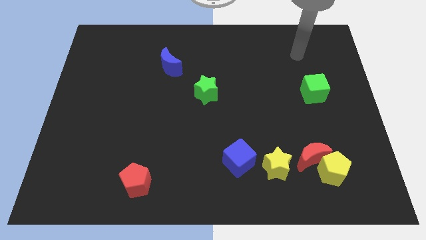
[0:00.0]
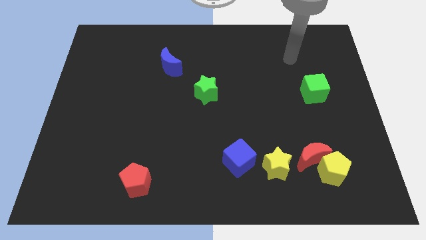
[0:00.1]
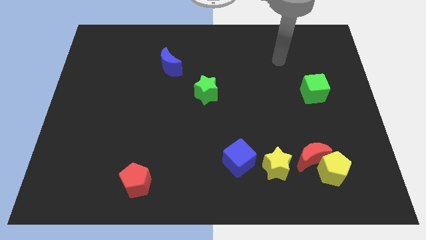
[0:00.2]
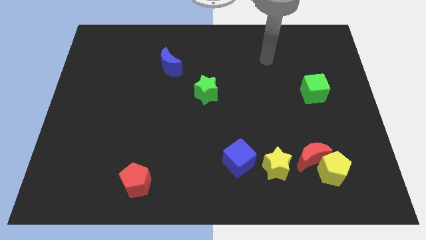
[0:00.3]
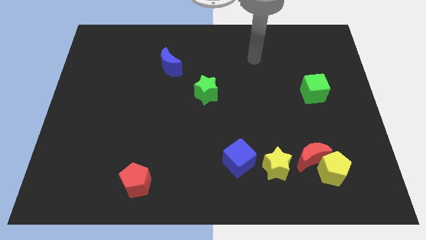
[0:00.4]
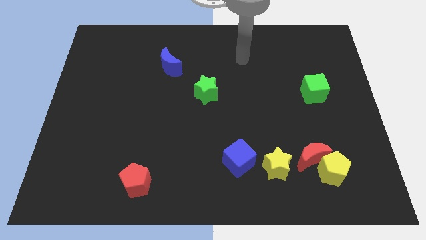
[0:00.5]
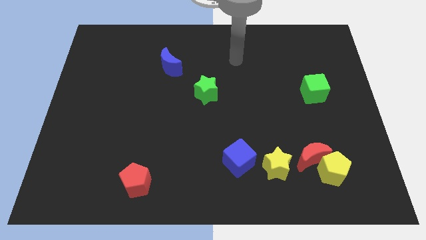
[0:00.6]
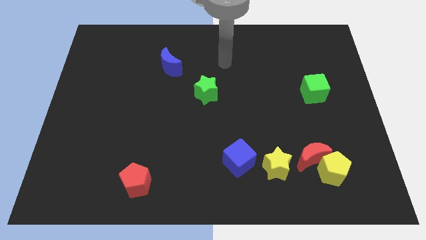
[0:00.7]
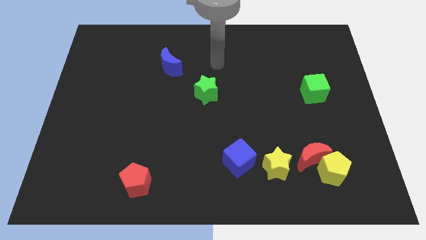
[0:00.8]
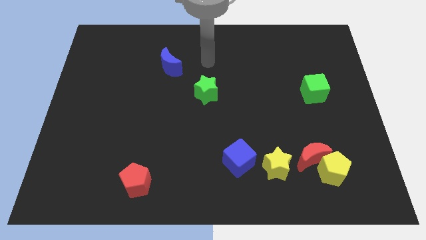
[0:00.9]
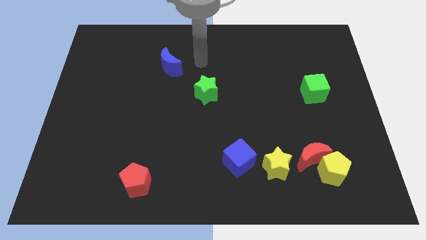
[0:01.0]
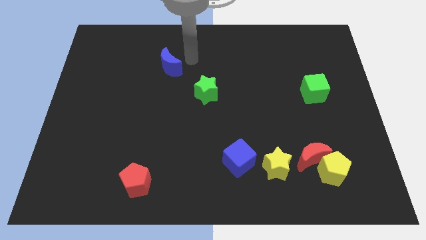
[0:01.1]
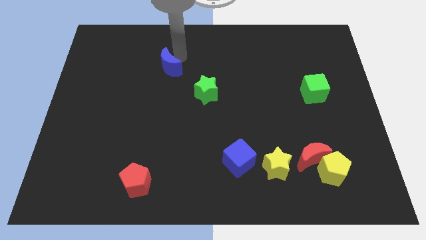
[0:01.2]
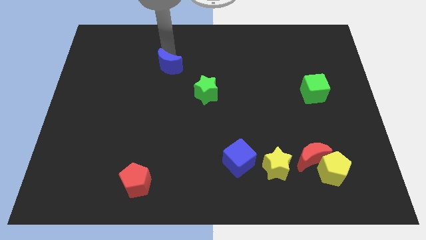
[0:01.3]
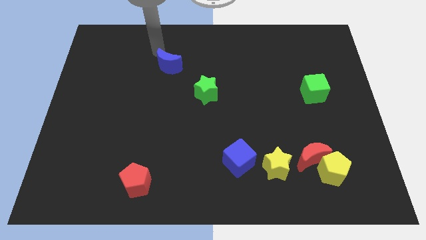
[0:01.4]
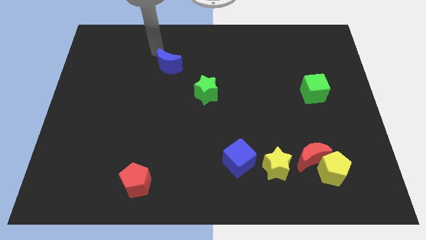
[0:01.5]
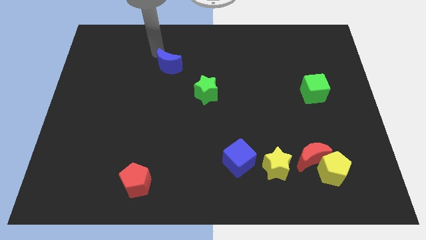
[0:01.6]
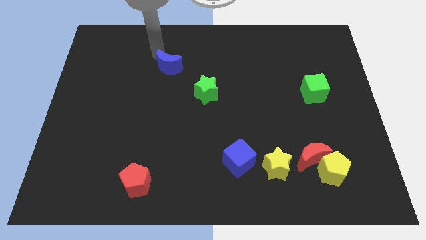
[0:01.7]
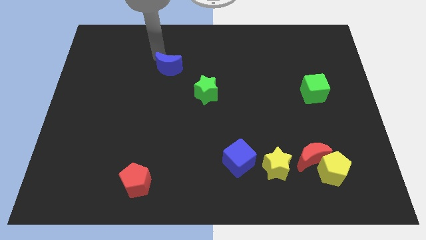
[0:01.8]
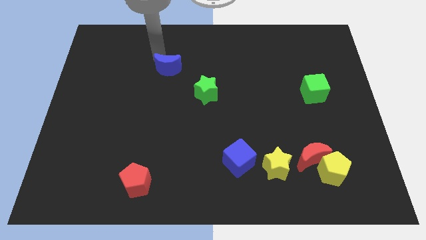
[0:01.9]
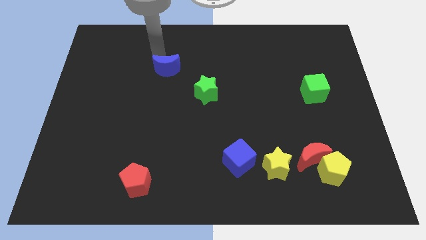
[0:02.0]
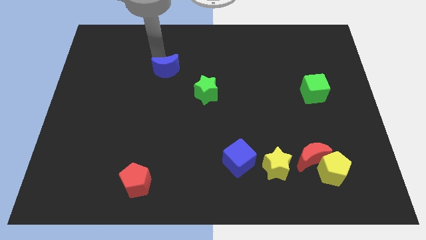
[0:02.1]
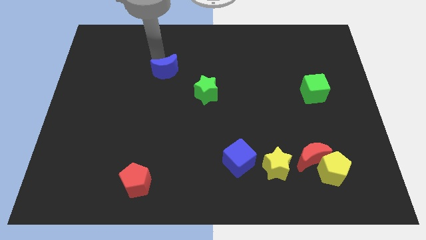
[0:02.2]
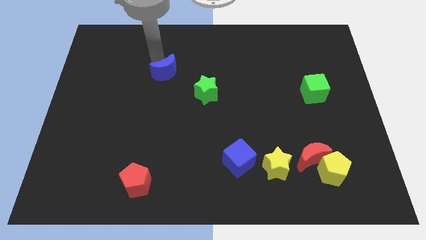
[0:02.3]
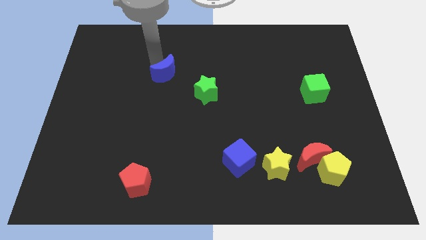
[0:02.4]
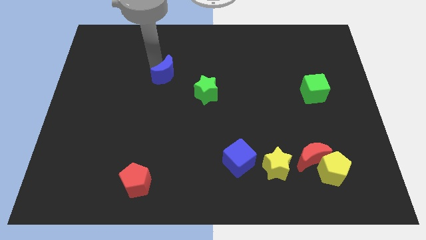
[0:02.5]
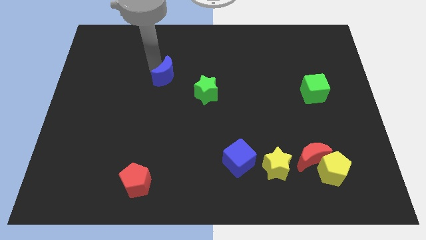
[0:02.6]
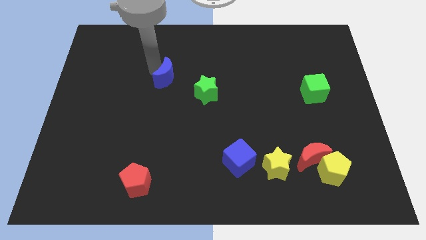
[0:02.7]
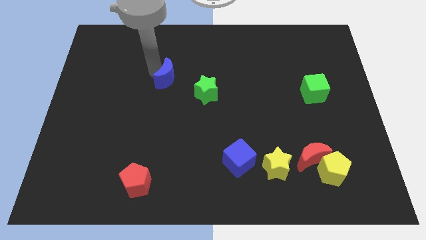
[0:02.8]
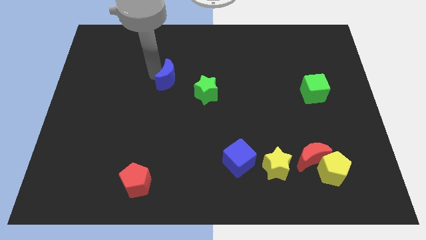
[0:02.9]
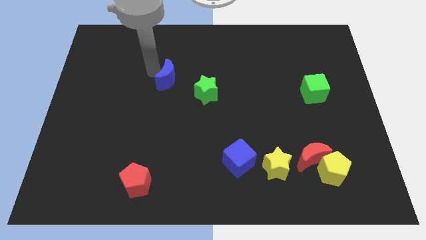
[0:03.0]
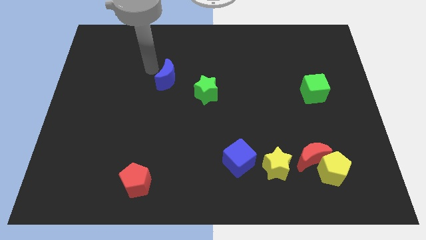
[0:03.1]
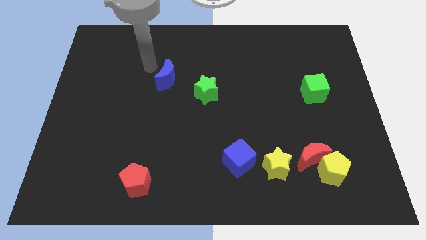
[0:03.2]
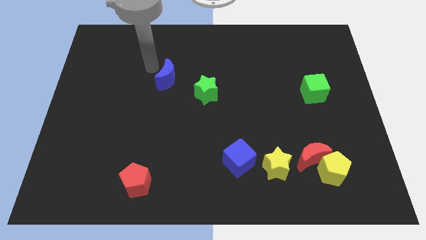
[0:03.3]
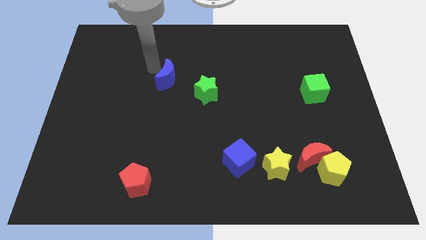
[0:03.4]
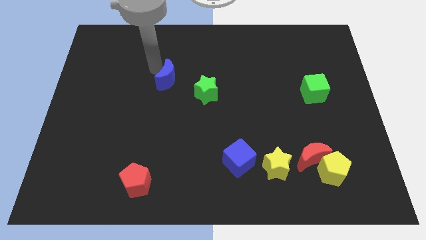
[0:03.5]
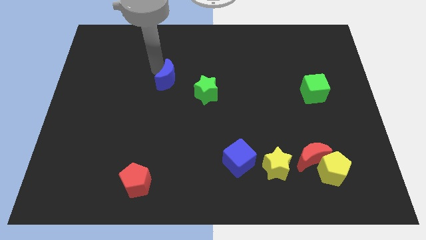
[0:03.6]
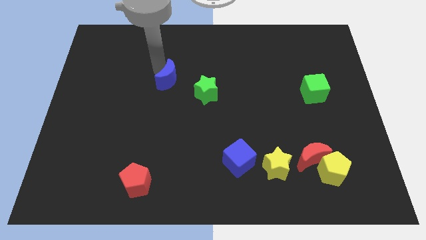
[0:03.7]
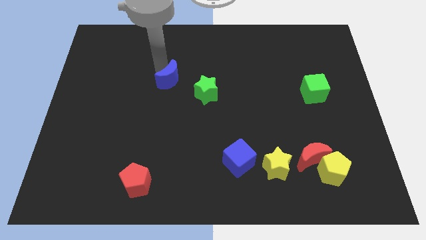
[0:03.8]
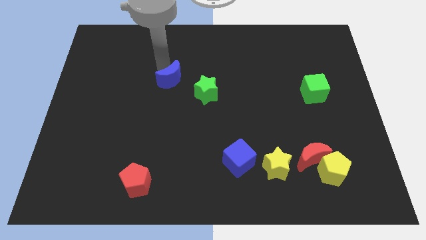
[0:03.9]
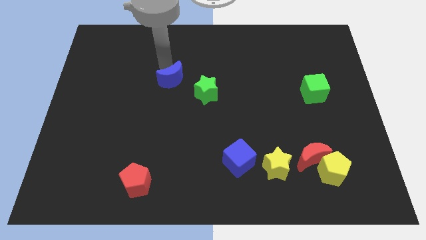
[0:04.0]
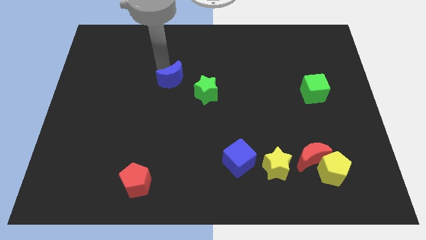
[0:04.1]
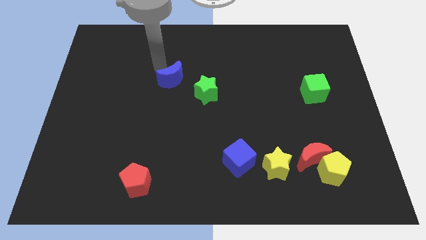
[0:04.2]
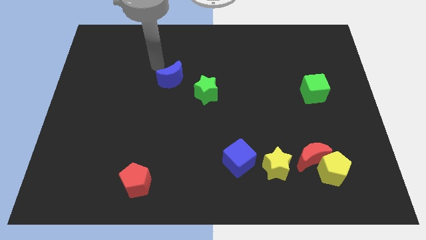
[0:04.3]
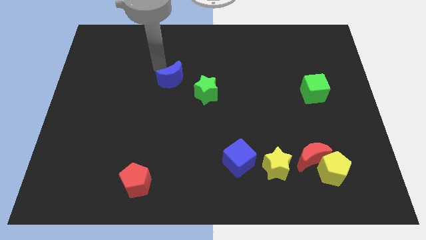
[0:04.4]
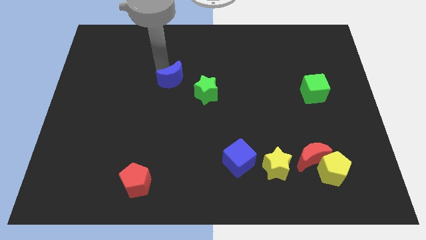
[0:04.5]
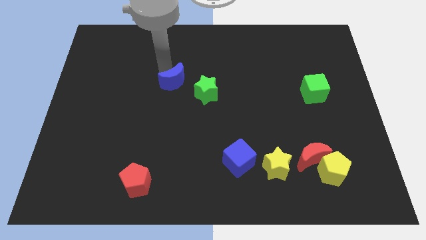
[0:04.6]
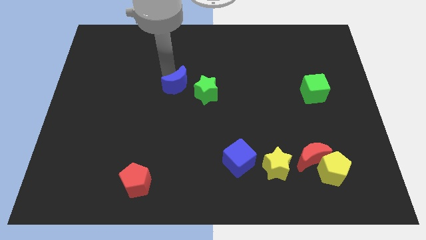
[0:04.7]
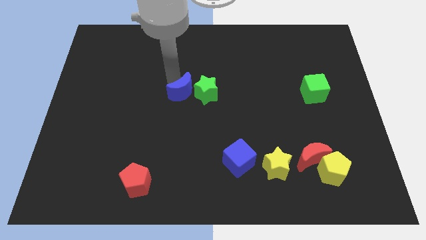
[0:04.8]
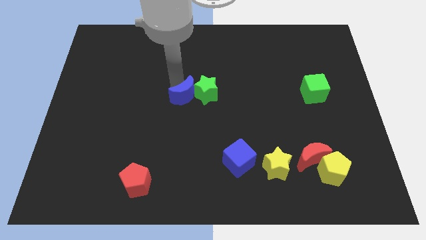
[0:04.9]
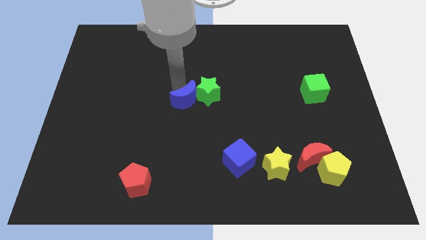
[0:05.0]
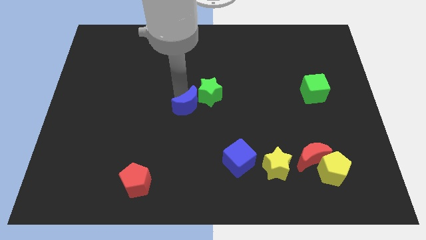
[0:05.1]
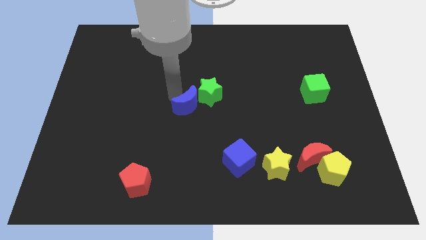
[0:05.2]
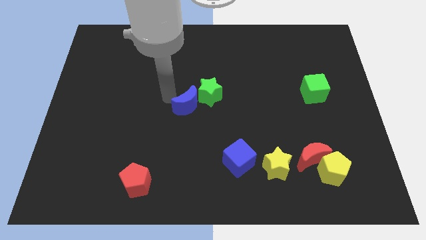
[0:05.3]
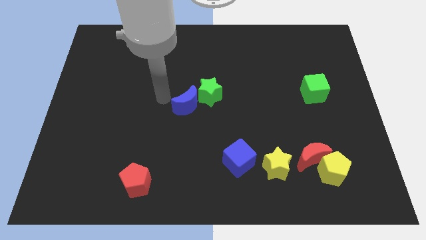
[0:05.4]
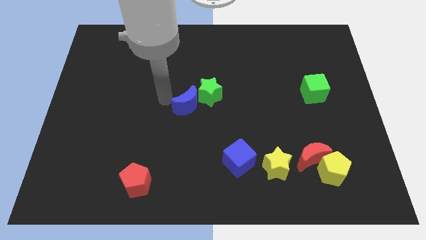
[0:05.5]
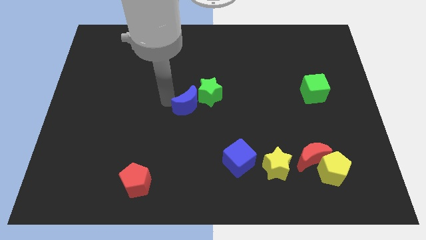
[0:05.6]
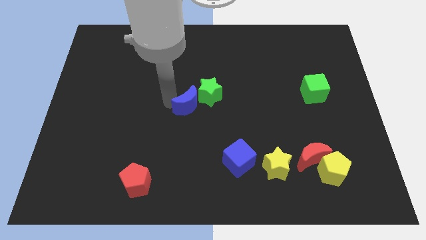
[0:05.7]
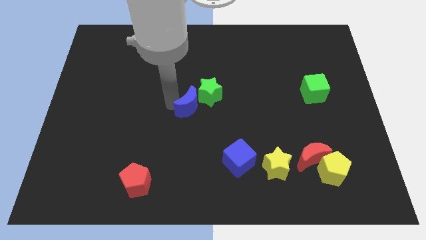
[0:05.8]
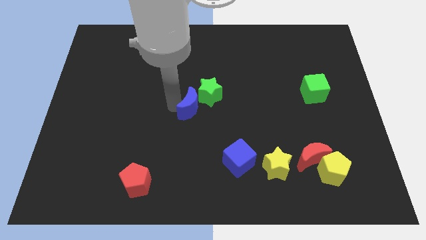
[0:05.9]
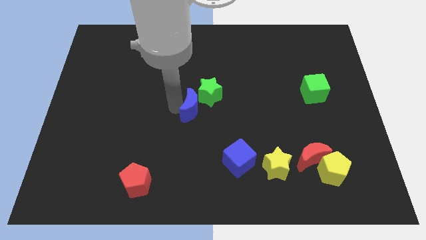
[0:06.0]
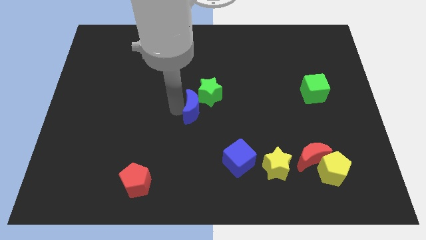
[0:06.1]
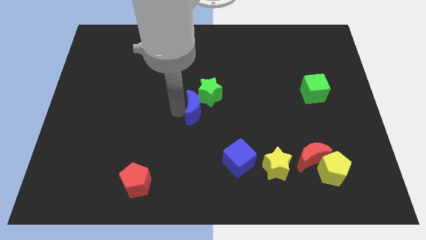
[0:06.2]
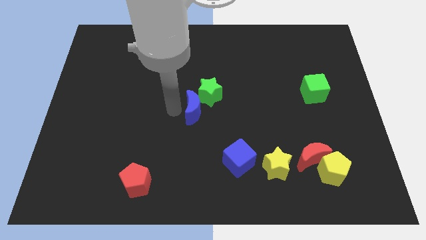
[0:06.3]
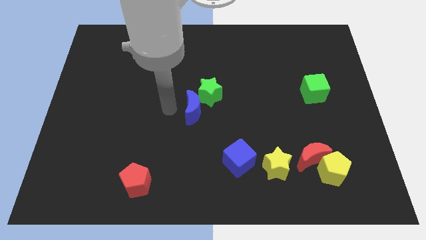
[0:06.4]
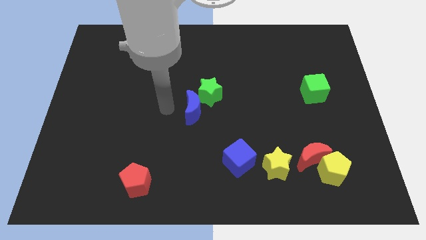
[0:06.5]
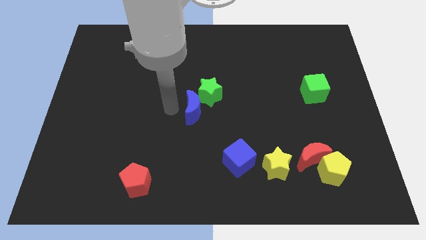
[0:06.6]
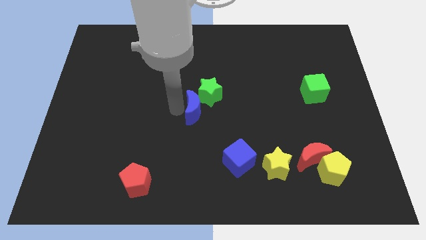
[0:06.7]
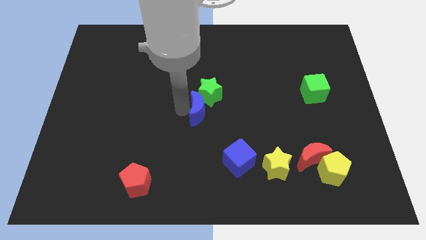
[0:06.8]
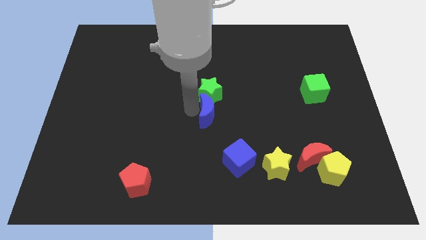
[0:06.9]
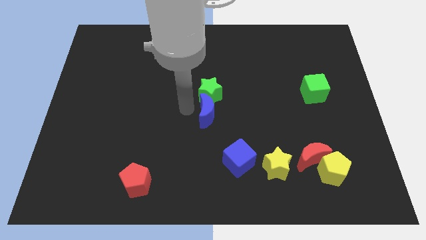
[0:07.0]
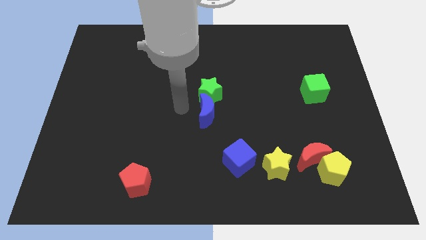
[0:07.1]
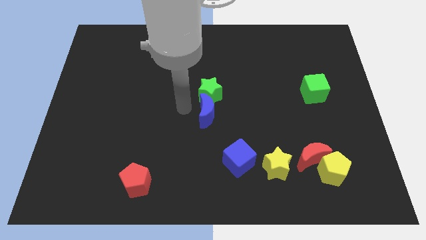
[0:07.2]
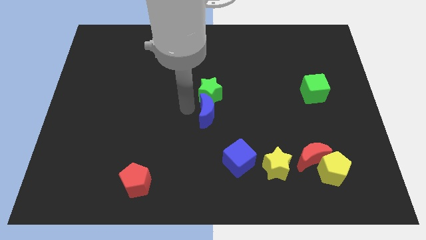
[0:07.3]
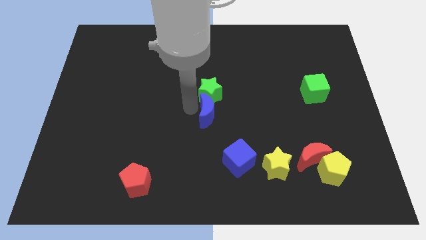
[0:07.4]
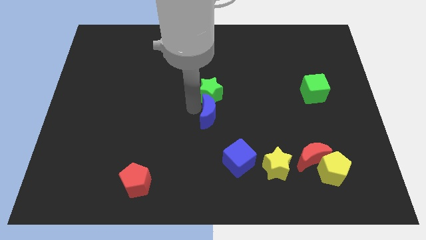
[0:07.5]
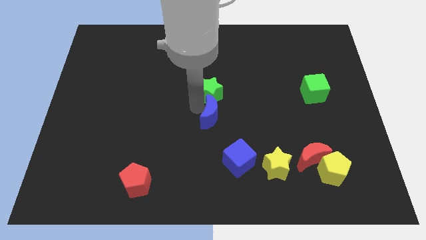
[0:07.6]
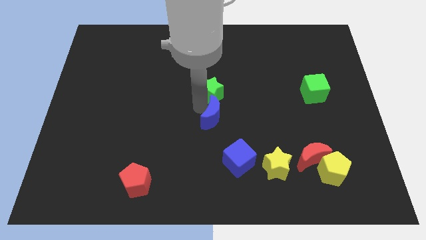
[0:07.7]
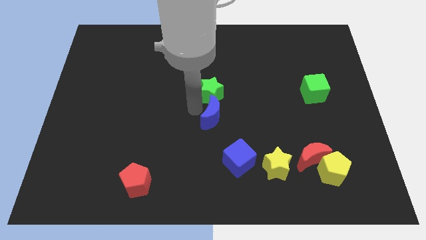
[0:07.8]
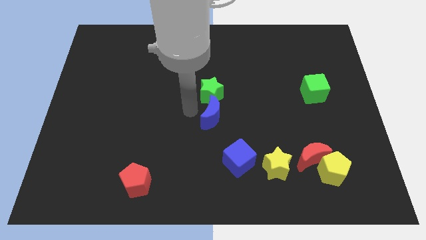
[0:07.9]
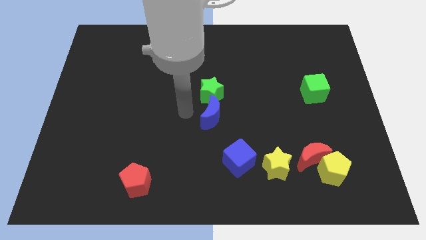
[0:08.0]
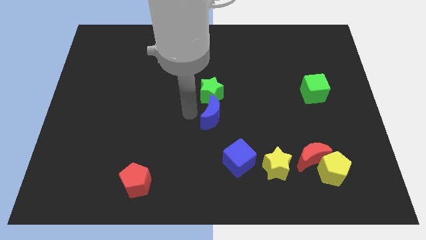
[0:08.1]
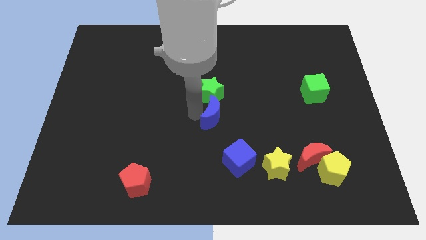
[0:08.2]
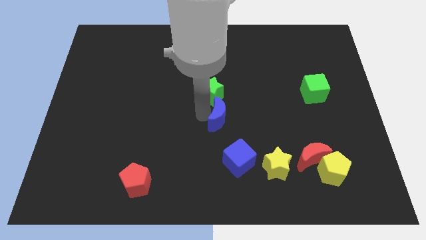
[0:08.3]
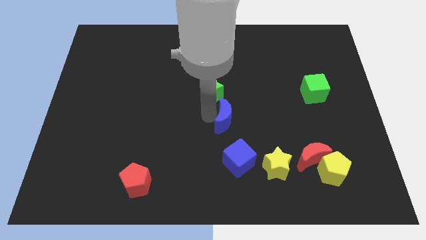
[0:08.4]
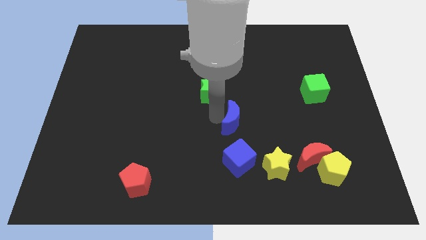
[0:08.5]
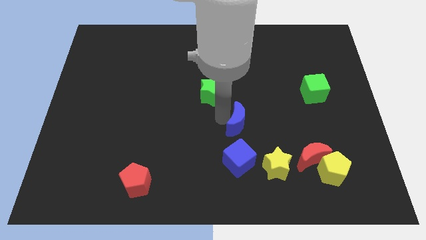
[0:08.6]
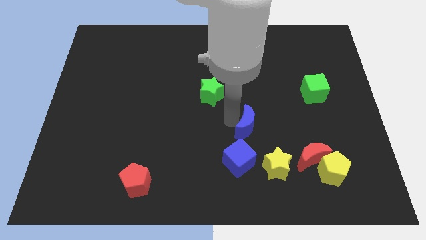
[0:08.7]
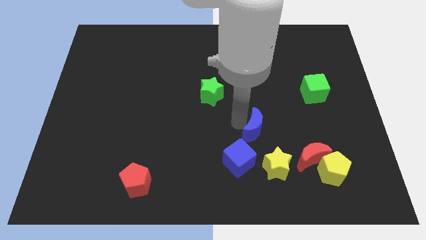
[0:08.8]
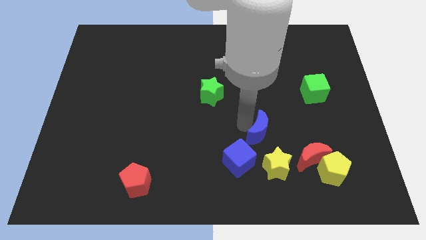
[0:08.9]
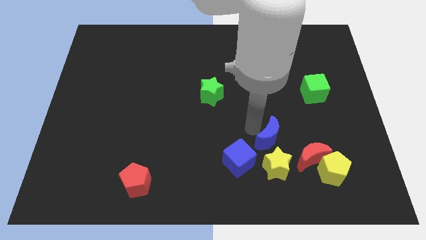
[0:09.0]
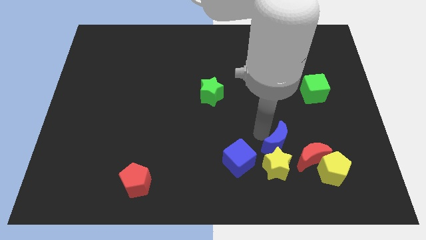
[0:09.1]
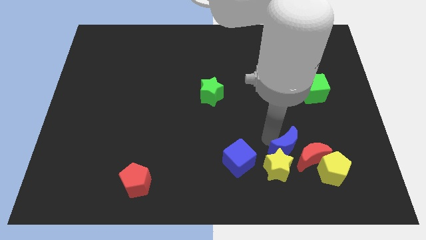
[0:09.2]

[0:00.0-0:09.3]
slide the blue moon to the red moon
